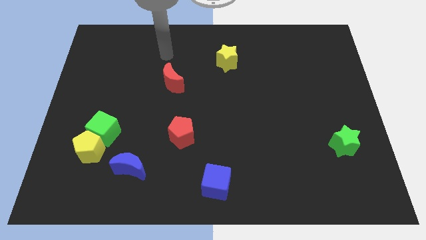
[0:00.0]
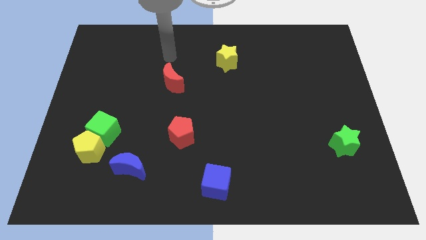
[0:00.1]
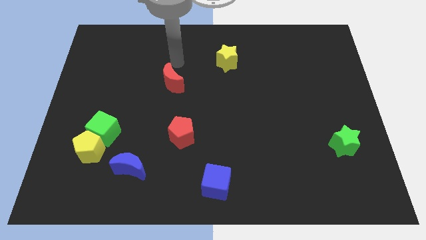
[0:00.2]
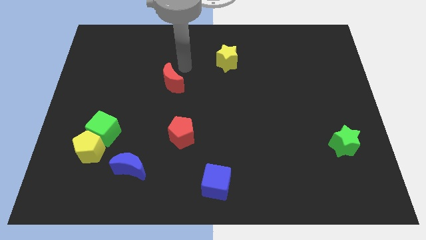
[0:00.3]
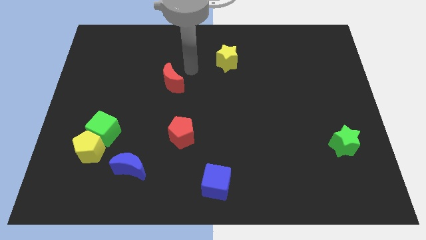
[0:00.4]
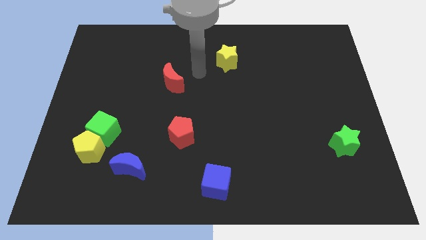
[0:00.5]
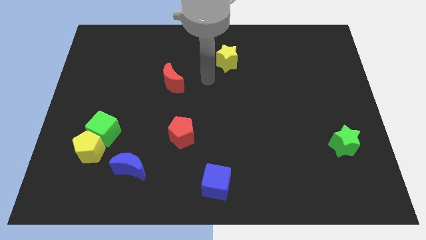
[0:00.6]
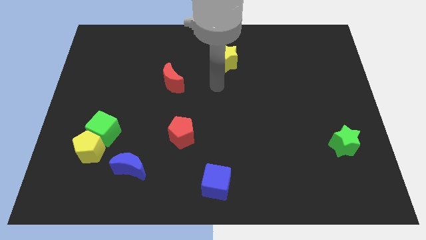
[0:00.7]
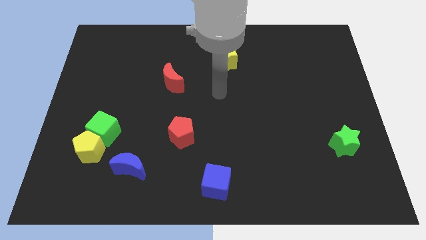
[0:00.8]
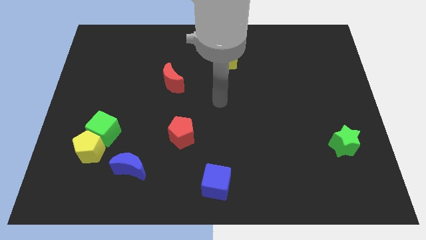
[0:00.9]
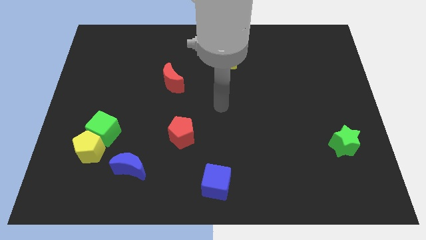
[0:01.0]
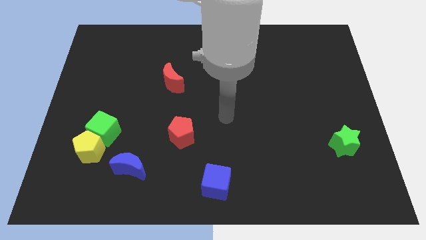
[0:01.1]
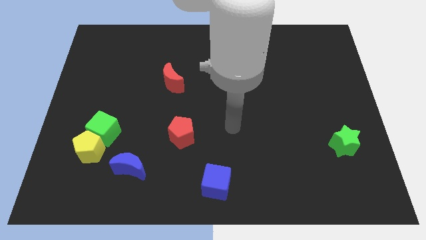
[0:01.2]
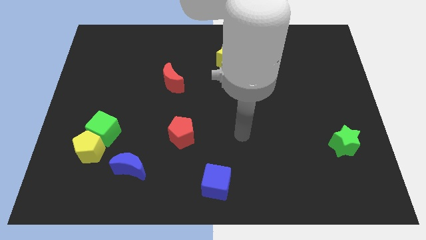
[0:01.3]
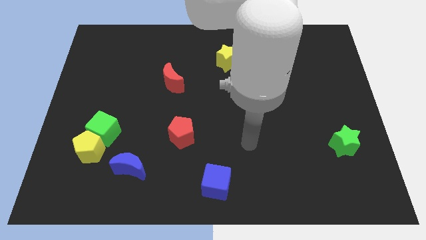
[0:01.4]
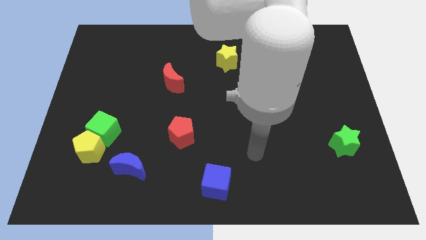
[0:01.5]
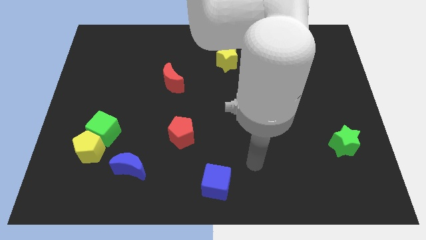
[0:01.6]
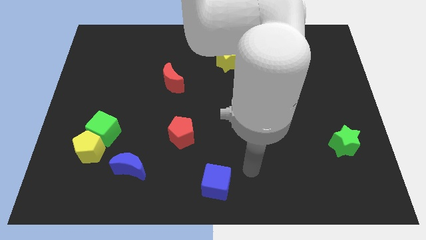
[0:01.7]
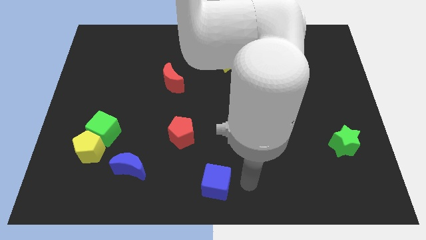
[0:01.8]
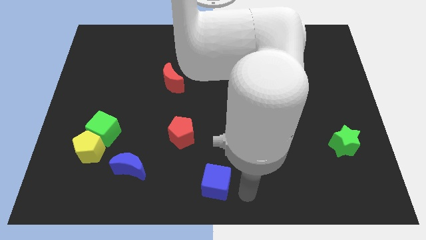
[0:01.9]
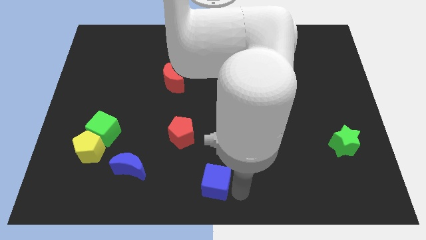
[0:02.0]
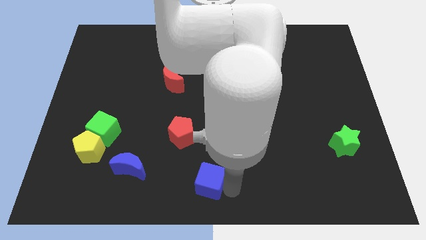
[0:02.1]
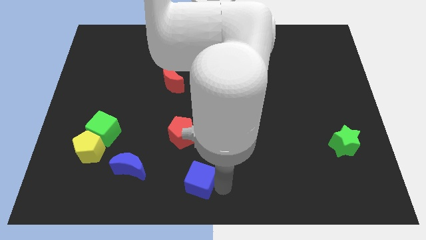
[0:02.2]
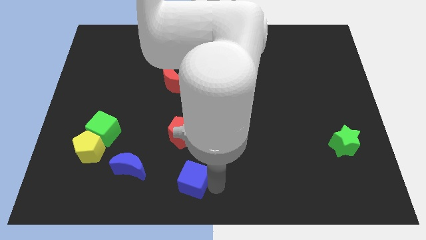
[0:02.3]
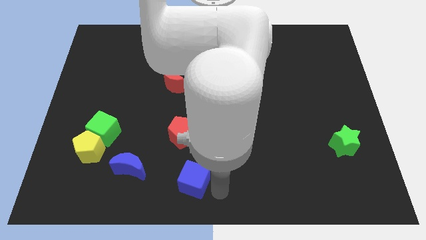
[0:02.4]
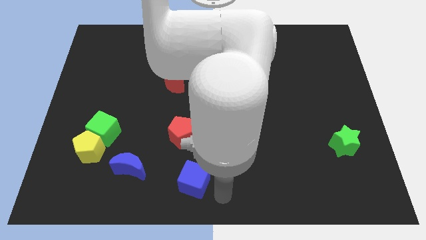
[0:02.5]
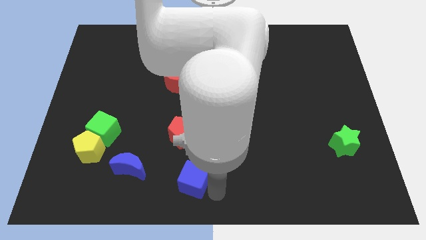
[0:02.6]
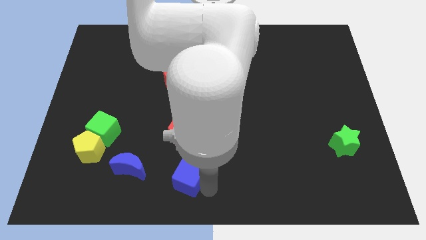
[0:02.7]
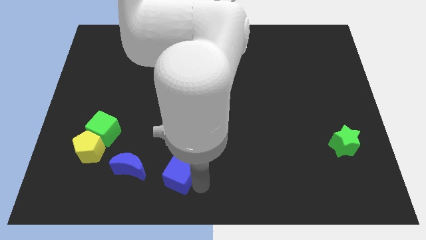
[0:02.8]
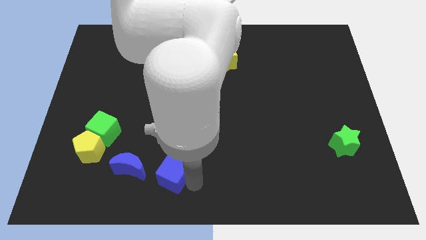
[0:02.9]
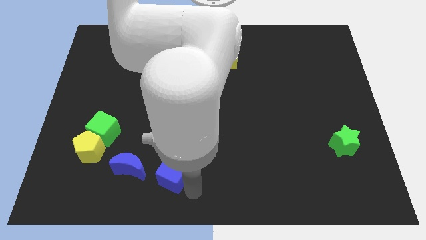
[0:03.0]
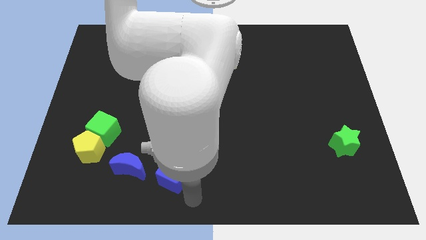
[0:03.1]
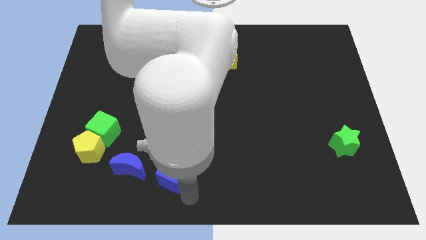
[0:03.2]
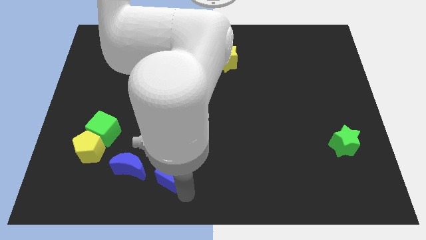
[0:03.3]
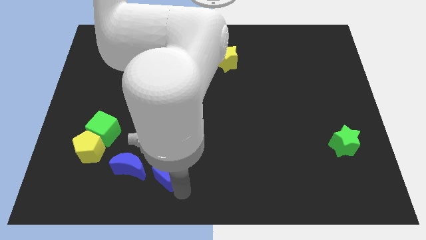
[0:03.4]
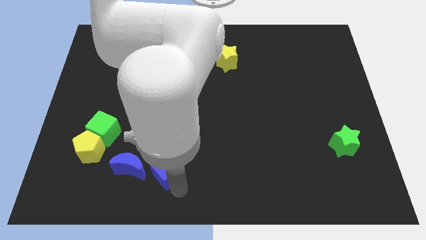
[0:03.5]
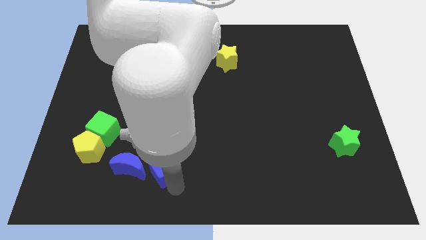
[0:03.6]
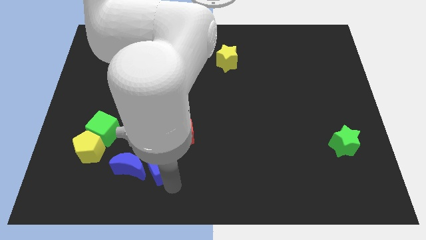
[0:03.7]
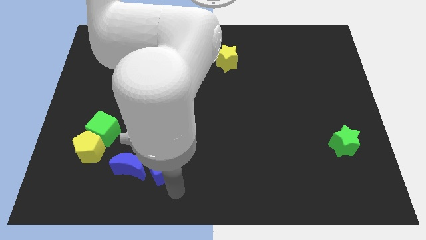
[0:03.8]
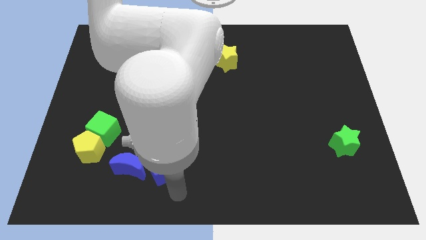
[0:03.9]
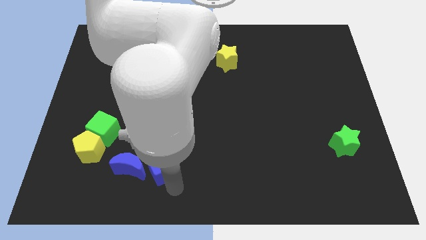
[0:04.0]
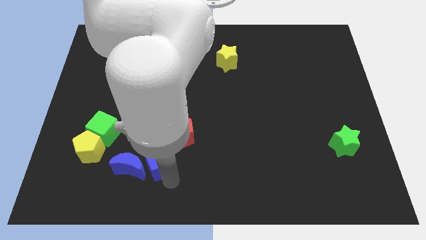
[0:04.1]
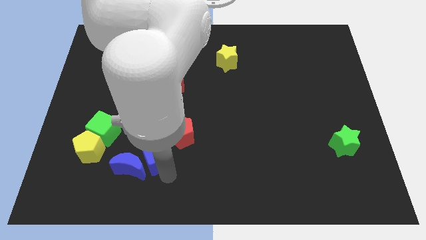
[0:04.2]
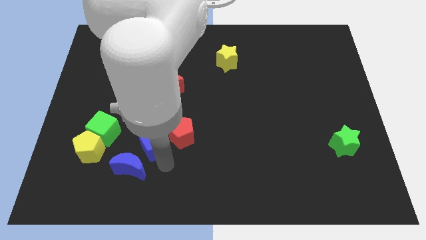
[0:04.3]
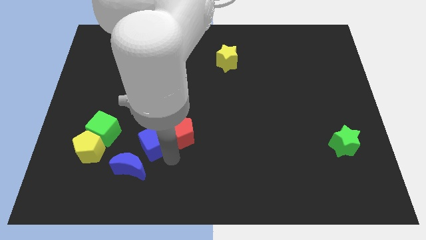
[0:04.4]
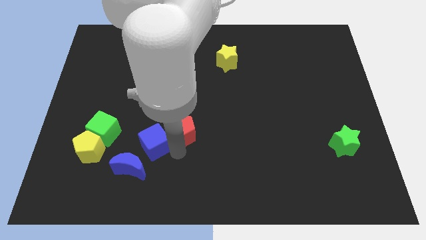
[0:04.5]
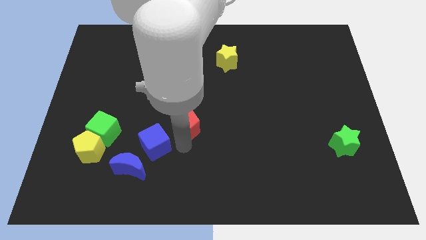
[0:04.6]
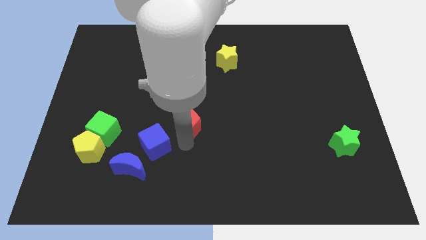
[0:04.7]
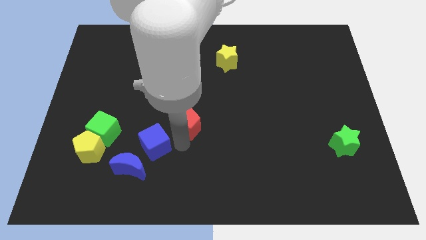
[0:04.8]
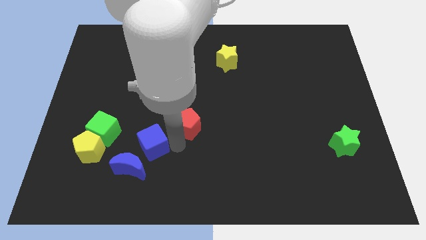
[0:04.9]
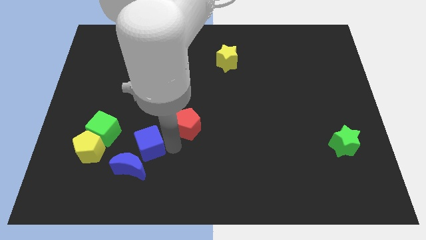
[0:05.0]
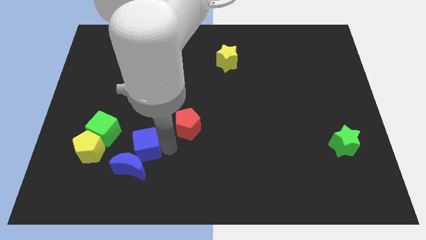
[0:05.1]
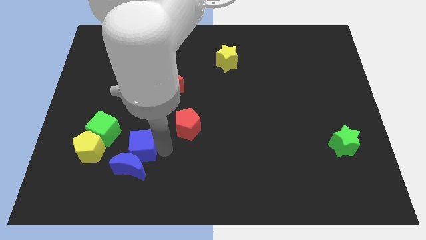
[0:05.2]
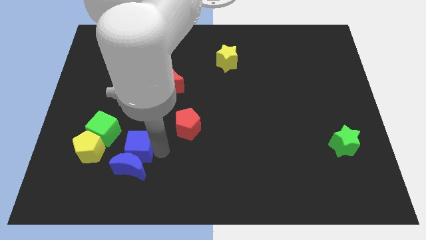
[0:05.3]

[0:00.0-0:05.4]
push the blue cube diagonally up and to the left of the blue moon

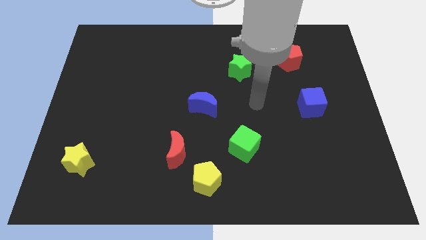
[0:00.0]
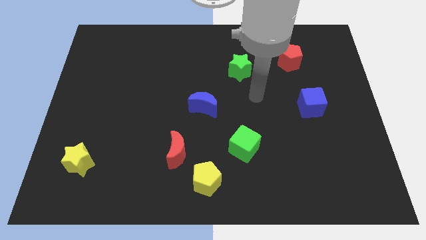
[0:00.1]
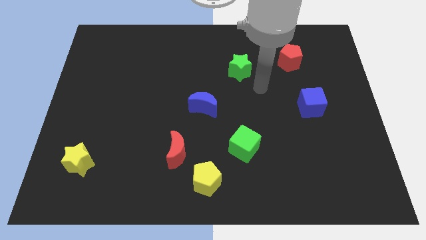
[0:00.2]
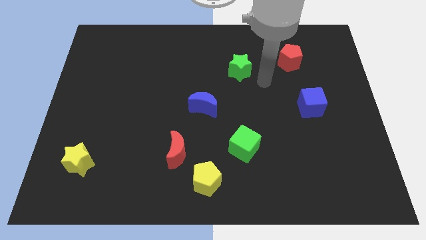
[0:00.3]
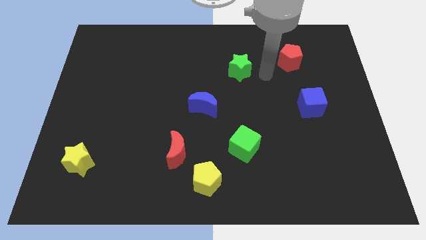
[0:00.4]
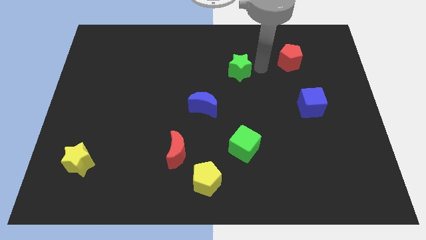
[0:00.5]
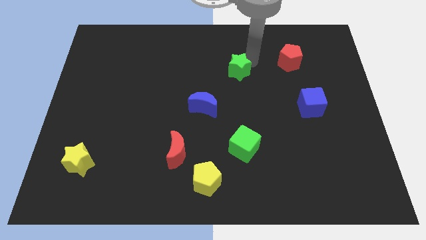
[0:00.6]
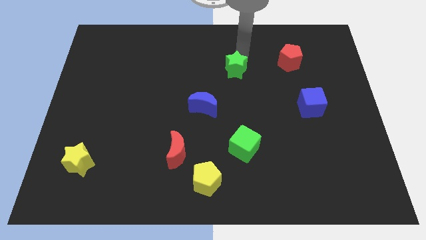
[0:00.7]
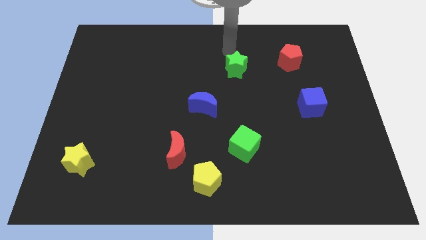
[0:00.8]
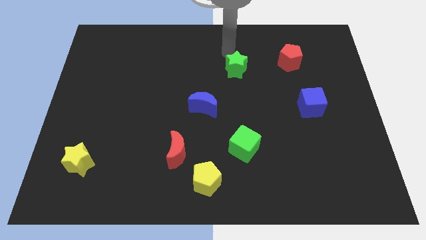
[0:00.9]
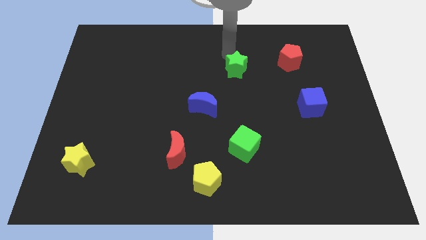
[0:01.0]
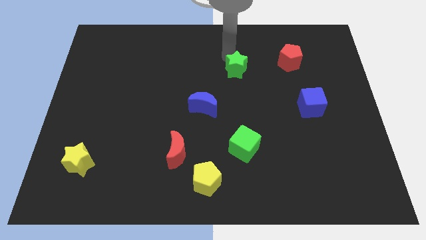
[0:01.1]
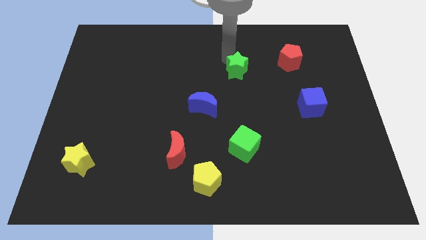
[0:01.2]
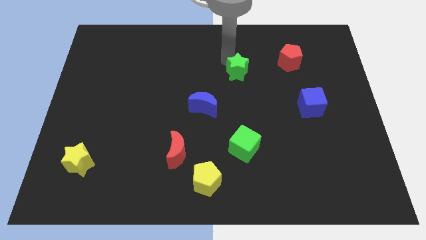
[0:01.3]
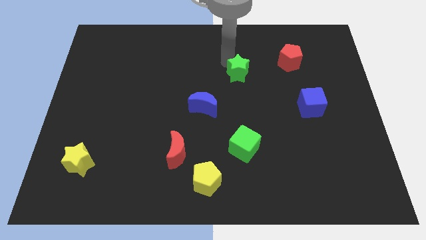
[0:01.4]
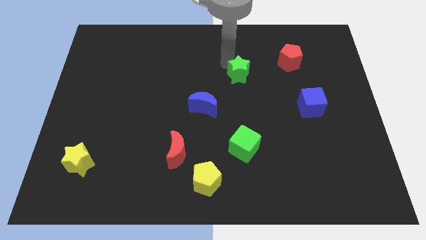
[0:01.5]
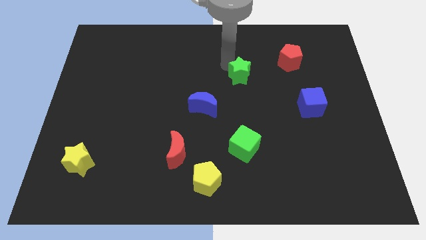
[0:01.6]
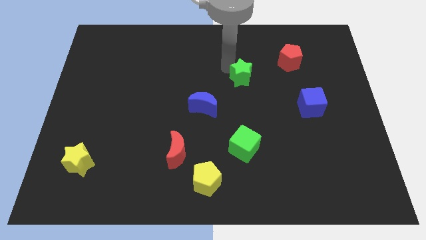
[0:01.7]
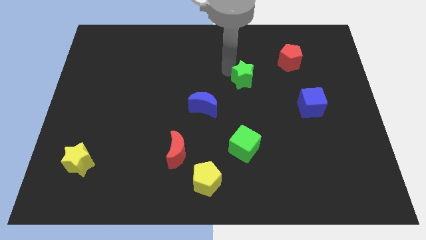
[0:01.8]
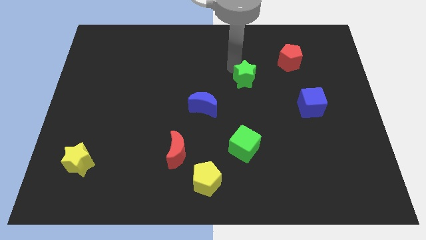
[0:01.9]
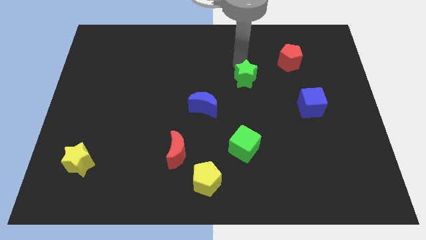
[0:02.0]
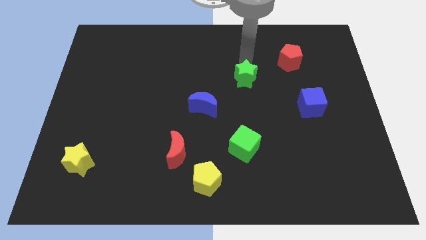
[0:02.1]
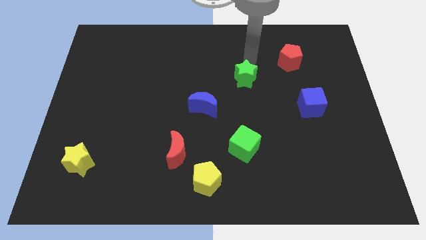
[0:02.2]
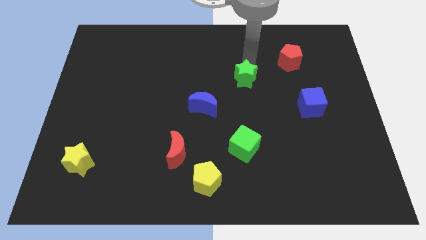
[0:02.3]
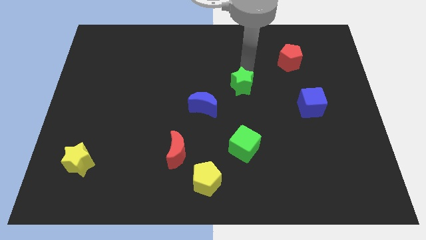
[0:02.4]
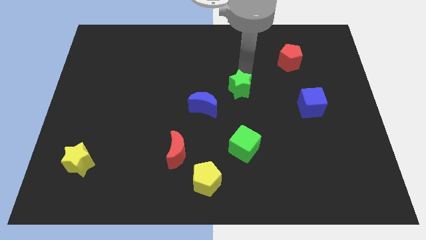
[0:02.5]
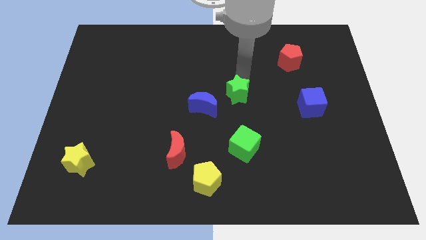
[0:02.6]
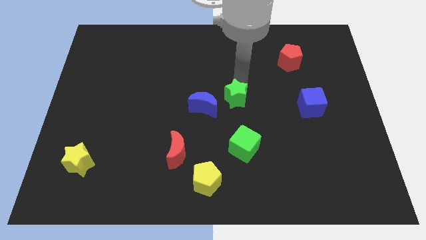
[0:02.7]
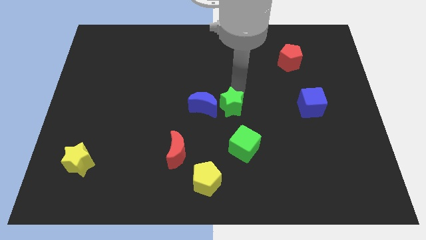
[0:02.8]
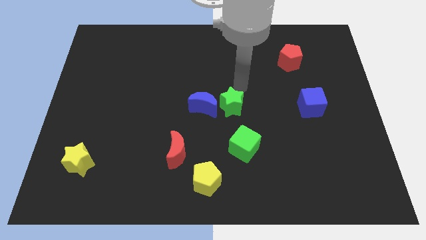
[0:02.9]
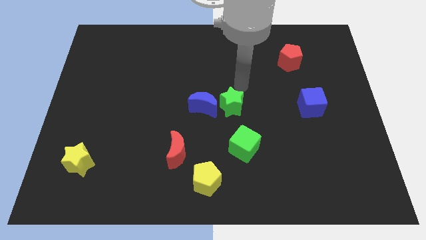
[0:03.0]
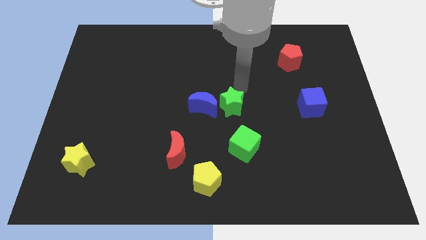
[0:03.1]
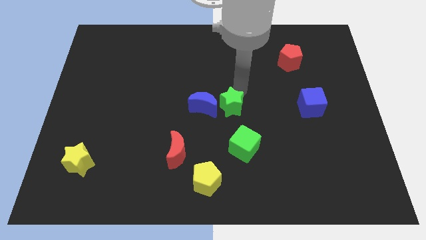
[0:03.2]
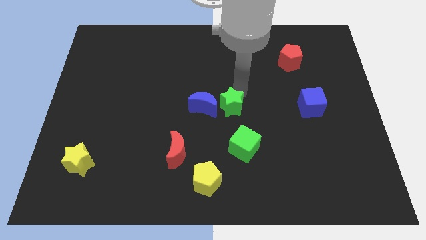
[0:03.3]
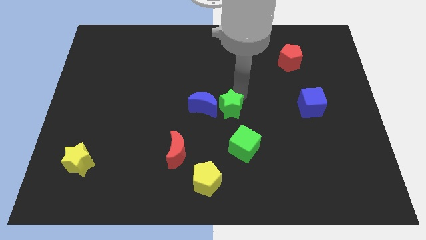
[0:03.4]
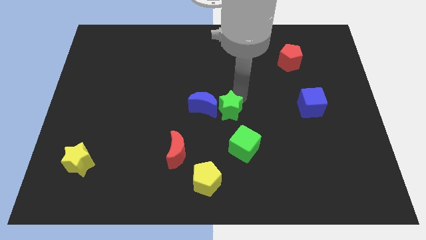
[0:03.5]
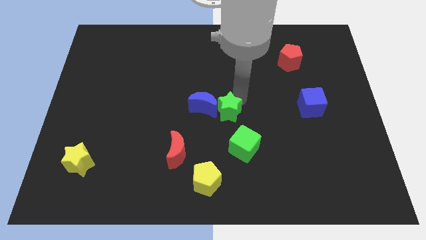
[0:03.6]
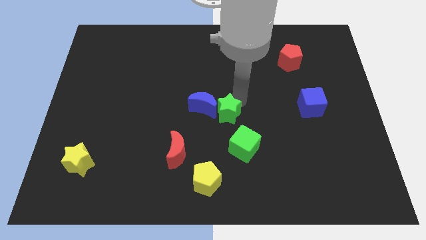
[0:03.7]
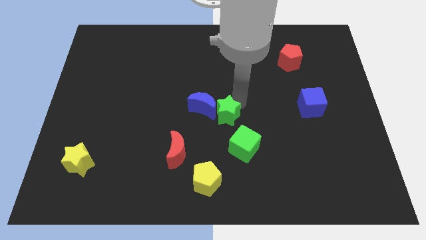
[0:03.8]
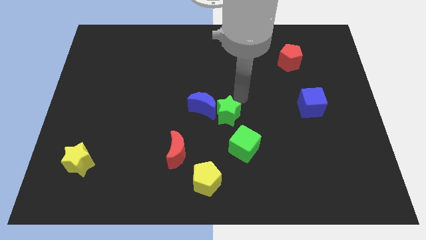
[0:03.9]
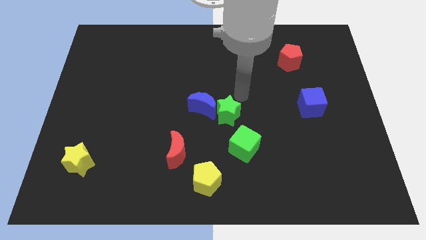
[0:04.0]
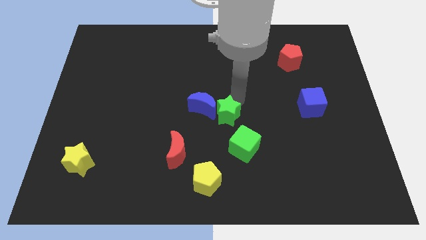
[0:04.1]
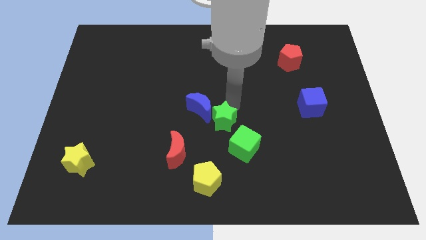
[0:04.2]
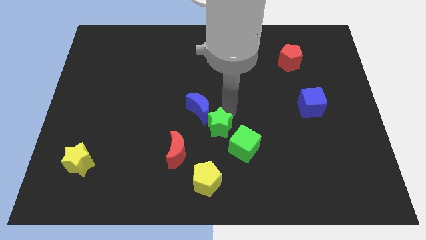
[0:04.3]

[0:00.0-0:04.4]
move the green star above the yellow pentagon
